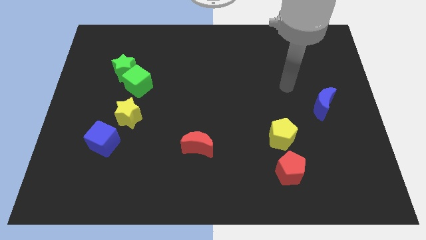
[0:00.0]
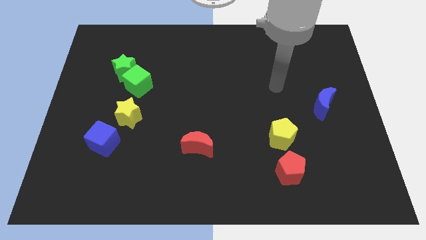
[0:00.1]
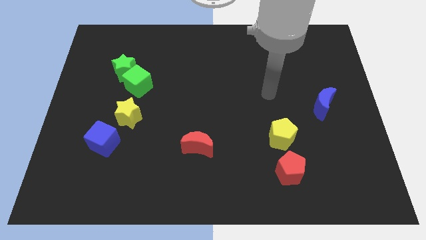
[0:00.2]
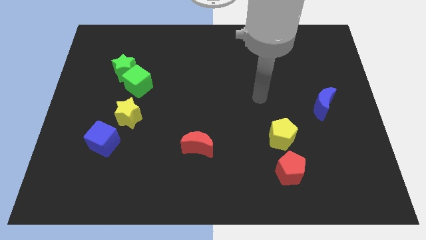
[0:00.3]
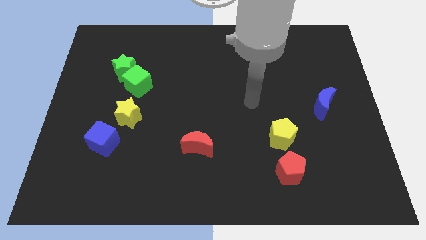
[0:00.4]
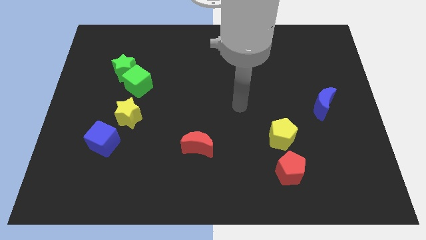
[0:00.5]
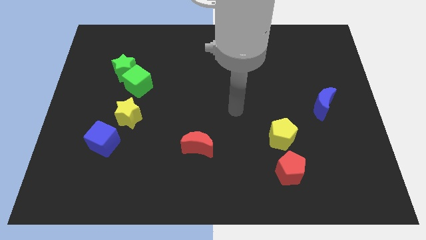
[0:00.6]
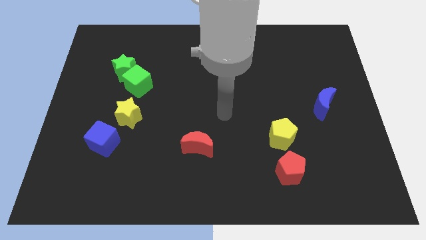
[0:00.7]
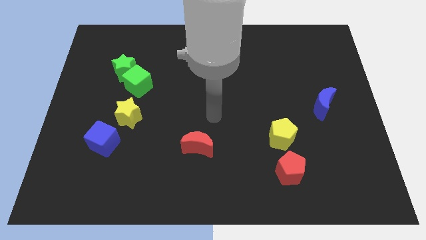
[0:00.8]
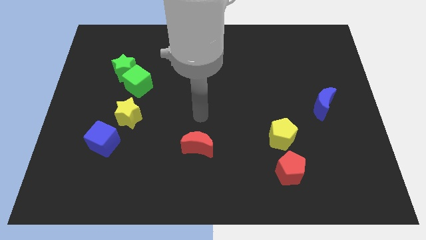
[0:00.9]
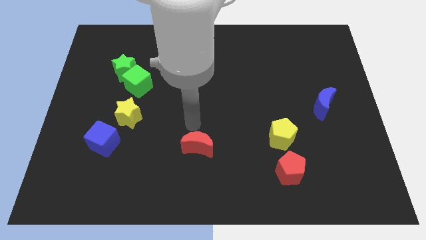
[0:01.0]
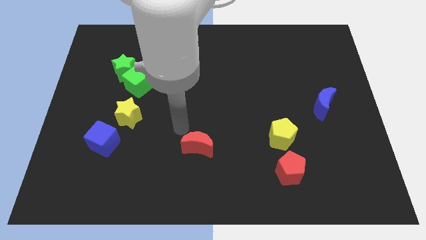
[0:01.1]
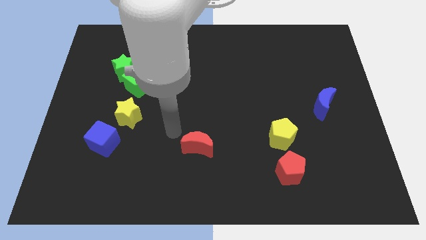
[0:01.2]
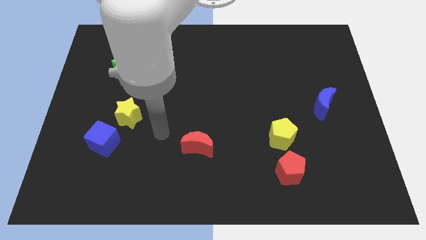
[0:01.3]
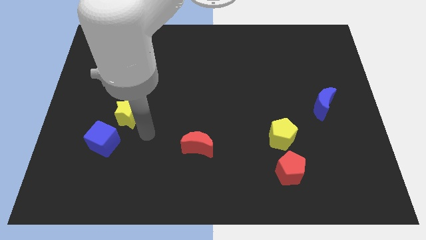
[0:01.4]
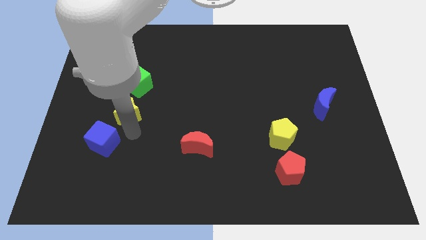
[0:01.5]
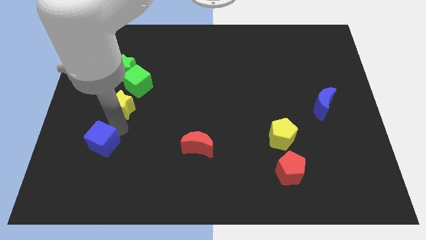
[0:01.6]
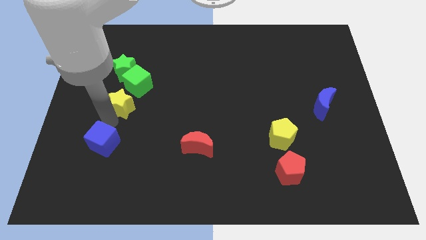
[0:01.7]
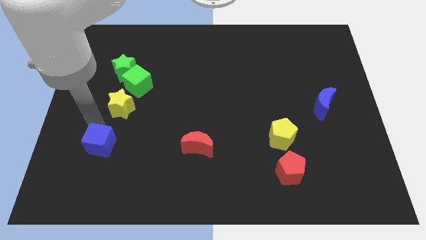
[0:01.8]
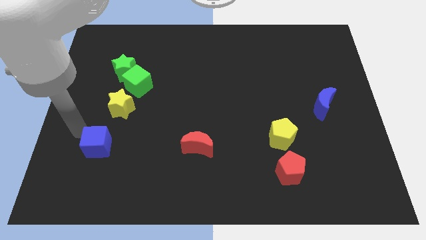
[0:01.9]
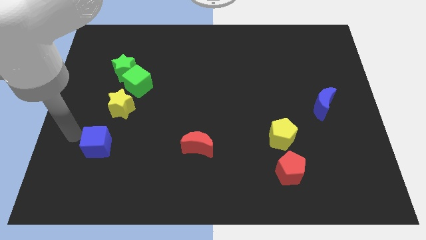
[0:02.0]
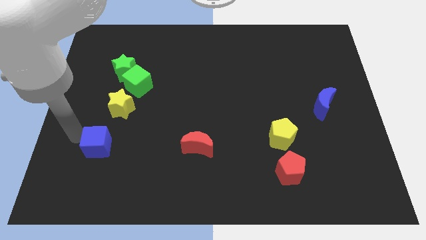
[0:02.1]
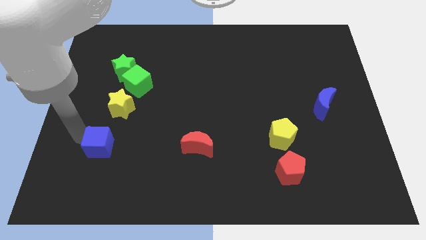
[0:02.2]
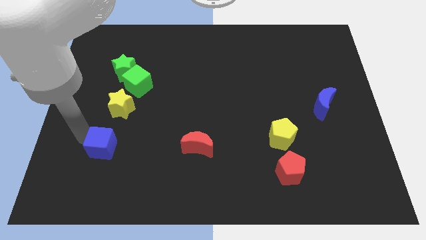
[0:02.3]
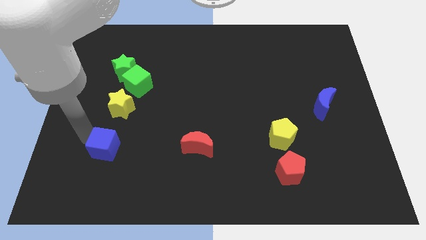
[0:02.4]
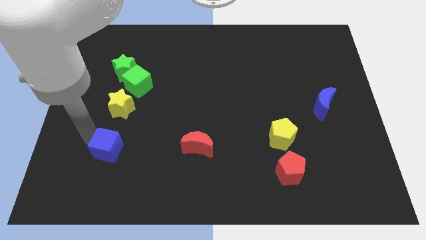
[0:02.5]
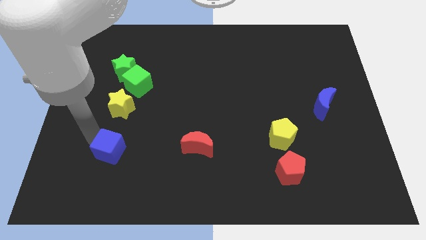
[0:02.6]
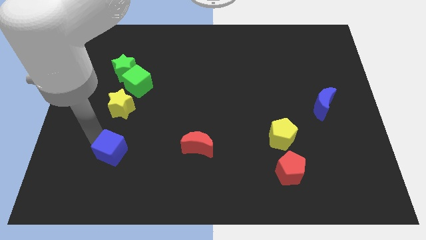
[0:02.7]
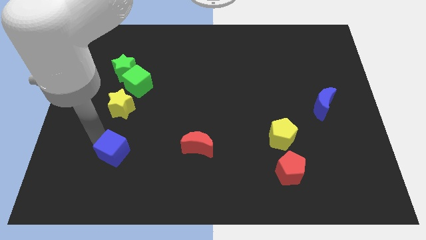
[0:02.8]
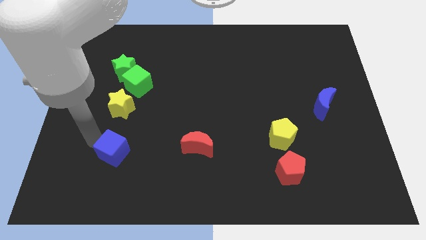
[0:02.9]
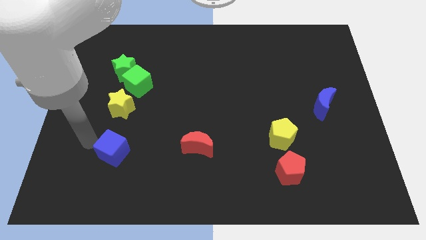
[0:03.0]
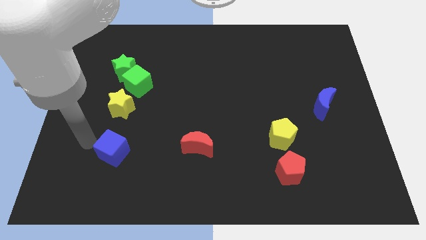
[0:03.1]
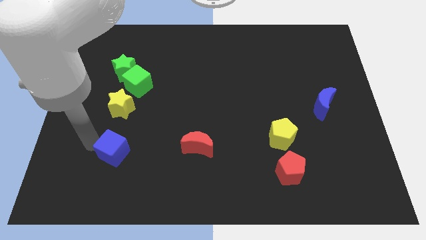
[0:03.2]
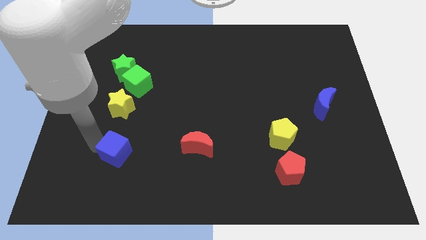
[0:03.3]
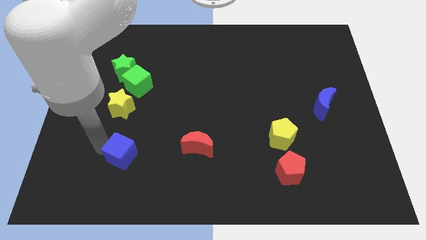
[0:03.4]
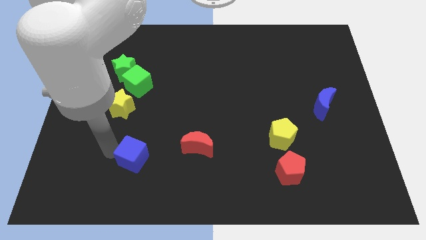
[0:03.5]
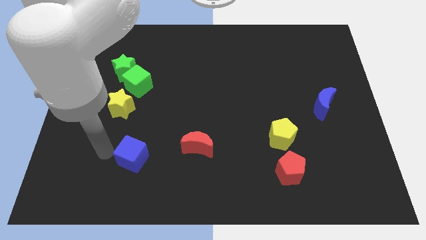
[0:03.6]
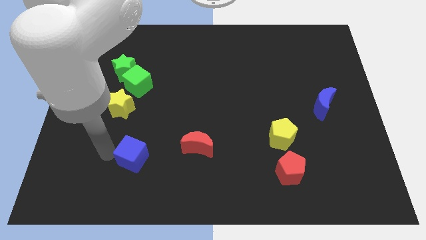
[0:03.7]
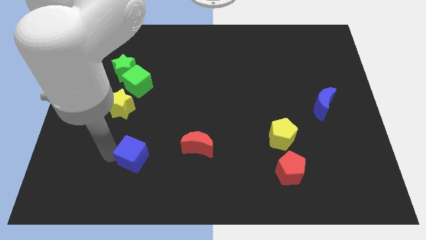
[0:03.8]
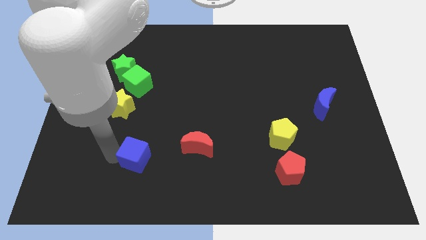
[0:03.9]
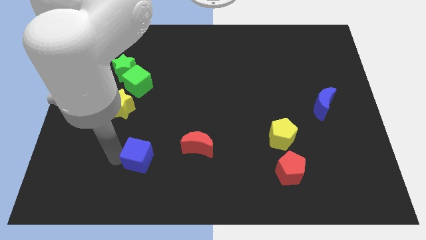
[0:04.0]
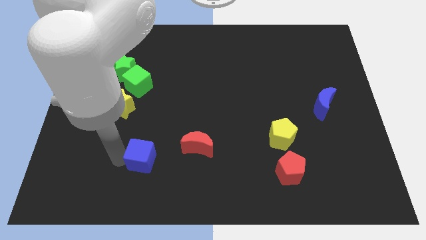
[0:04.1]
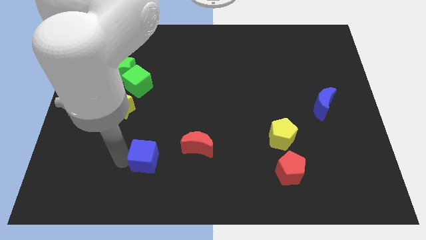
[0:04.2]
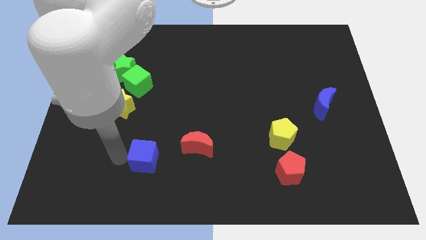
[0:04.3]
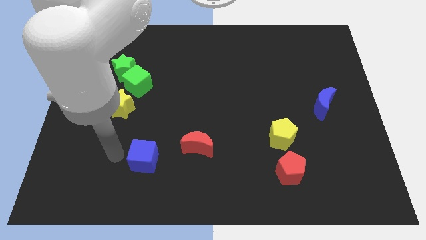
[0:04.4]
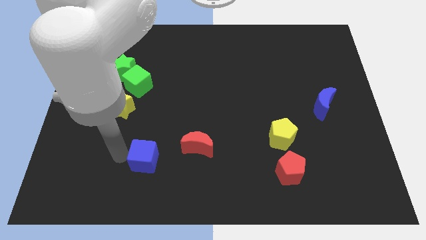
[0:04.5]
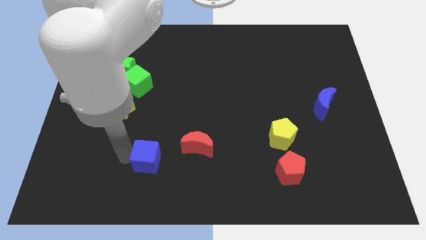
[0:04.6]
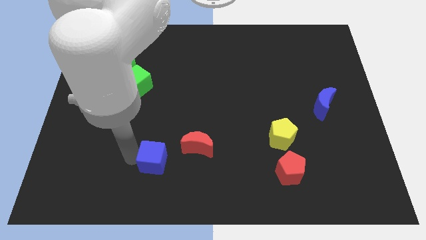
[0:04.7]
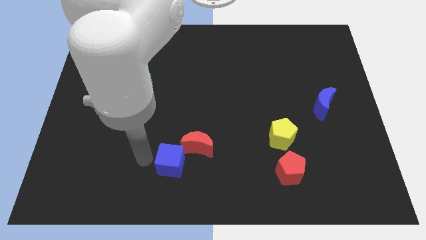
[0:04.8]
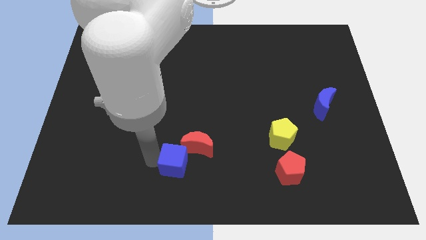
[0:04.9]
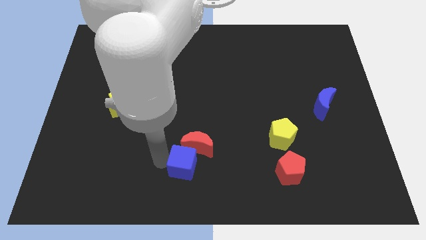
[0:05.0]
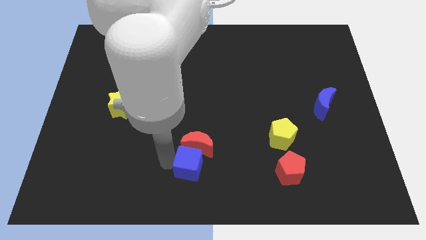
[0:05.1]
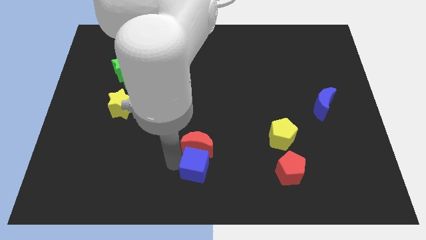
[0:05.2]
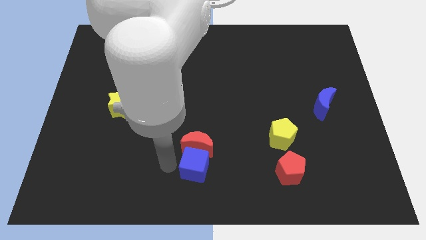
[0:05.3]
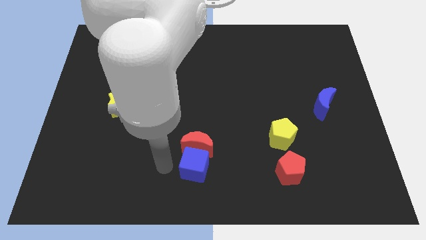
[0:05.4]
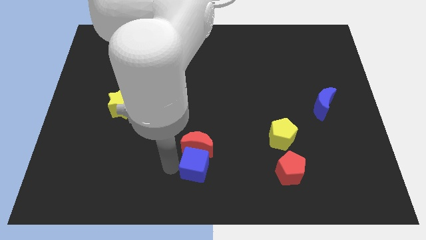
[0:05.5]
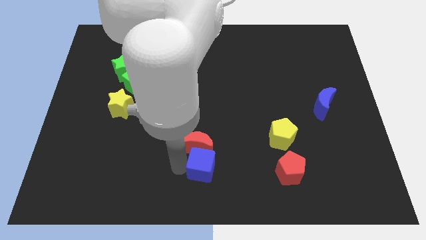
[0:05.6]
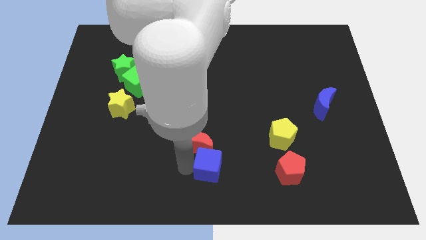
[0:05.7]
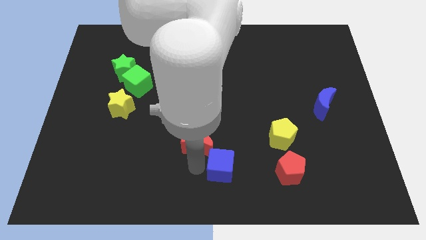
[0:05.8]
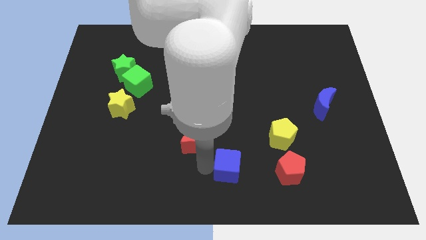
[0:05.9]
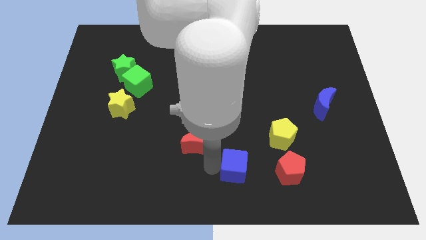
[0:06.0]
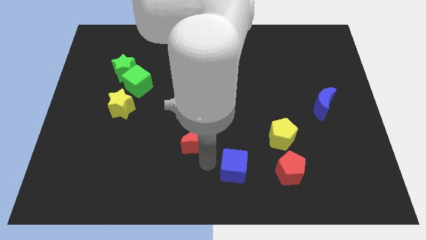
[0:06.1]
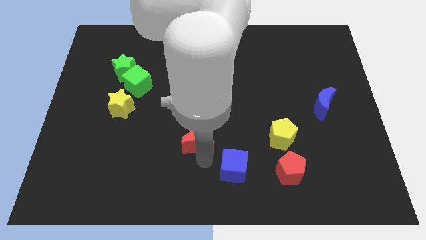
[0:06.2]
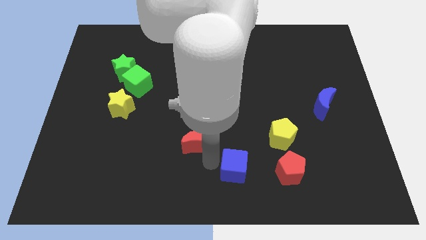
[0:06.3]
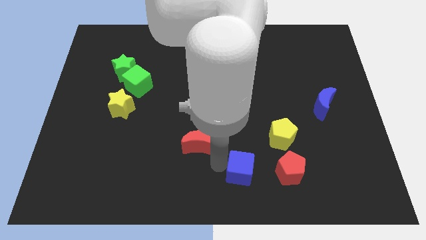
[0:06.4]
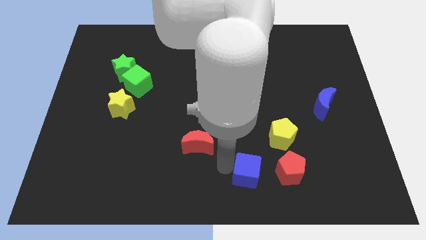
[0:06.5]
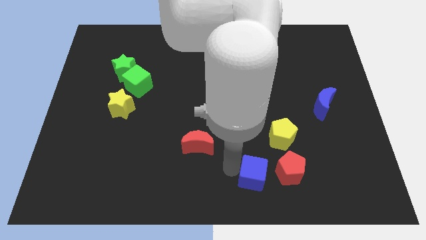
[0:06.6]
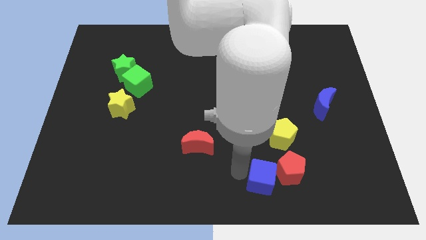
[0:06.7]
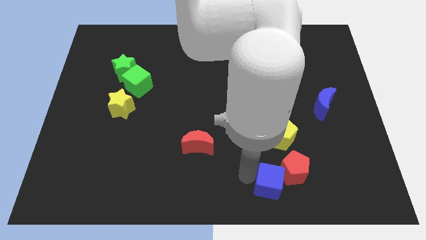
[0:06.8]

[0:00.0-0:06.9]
slide the blue cube to the bottom side of the yellow pentagon

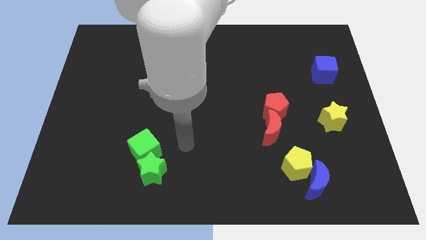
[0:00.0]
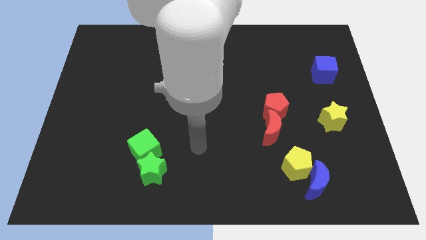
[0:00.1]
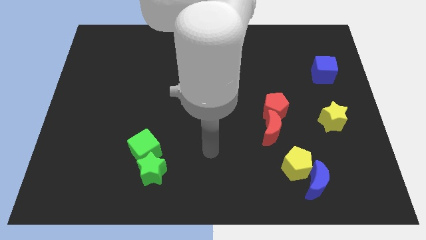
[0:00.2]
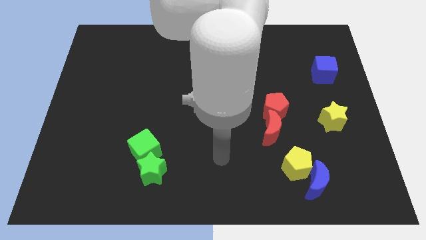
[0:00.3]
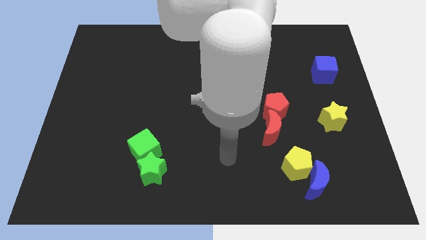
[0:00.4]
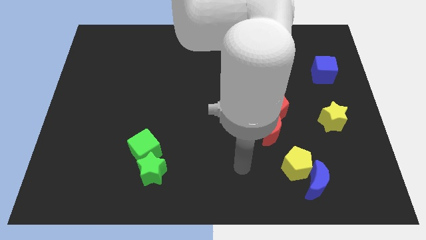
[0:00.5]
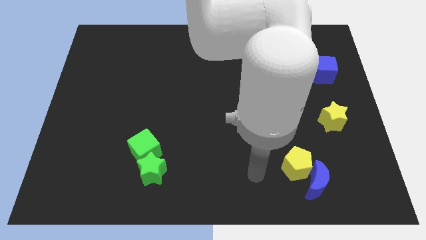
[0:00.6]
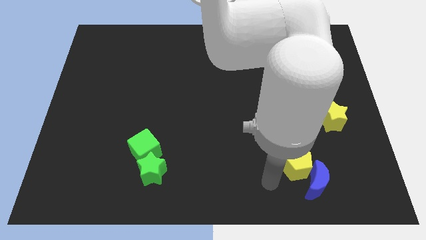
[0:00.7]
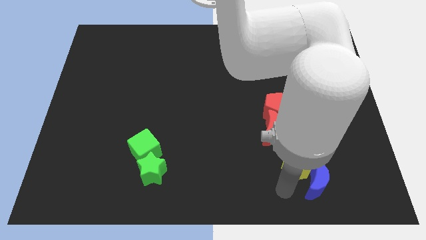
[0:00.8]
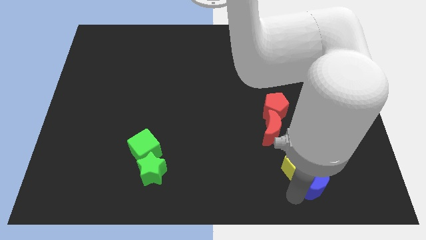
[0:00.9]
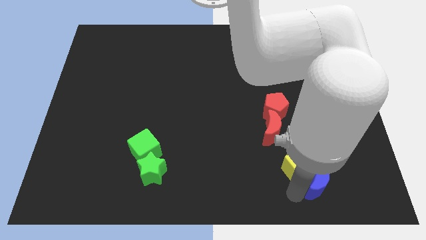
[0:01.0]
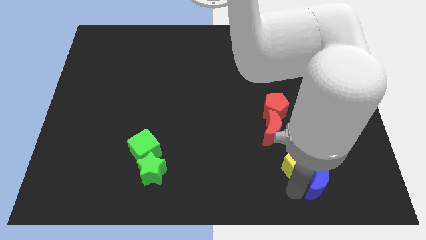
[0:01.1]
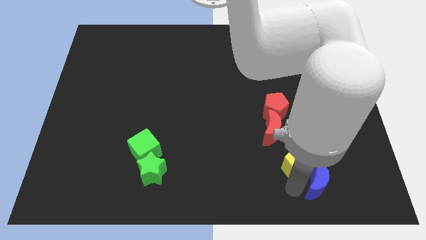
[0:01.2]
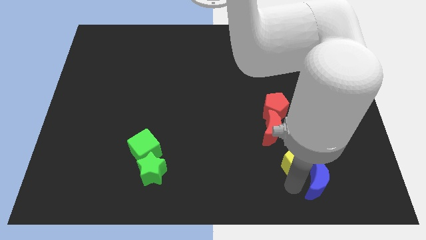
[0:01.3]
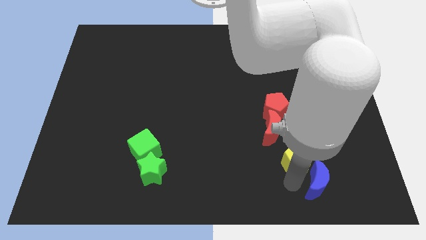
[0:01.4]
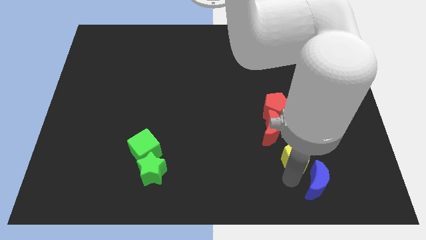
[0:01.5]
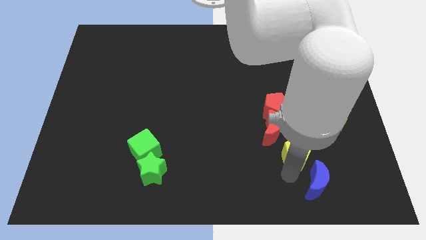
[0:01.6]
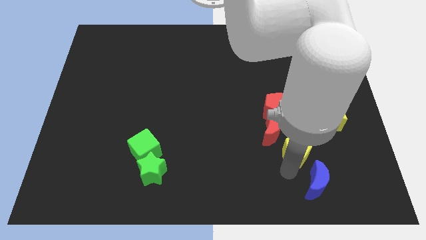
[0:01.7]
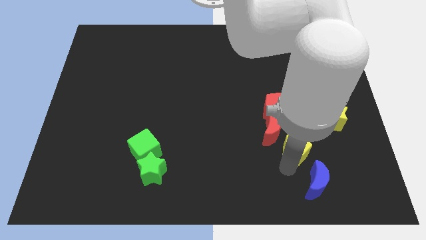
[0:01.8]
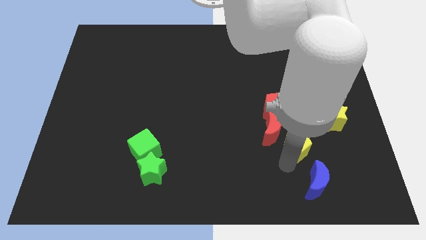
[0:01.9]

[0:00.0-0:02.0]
push the yellow pentagon diagonally down and to the right of the red pentagon
